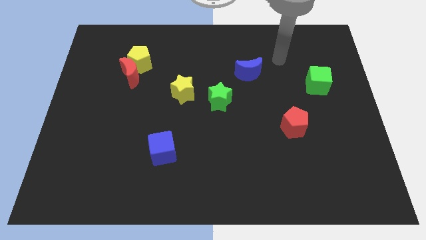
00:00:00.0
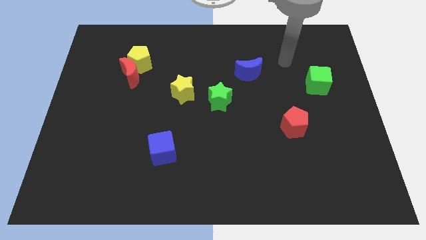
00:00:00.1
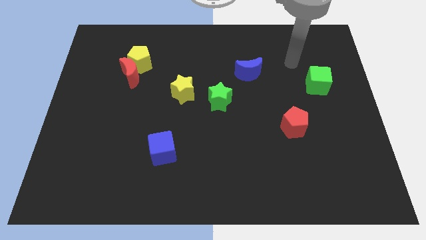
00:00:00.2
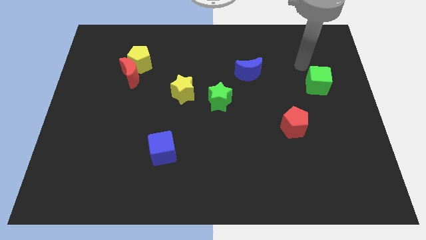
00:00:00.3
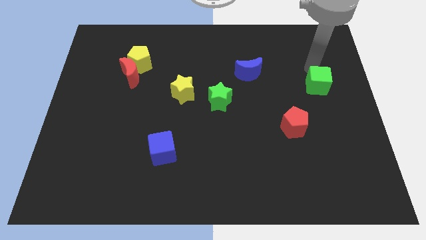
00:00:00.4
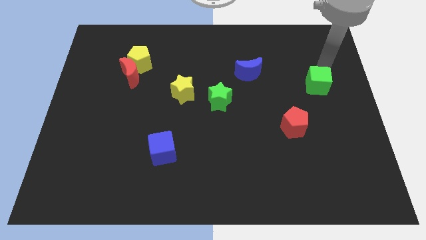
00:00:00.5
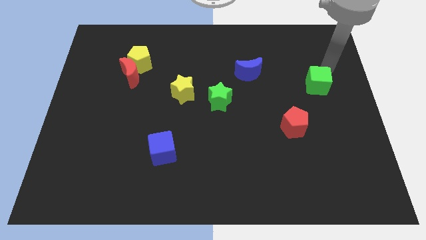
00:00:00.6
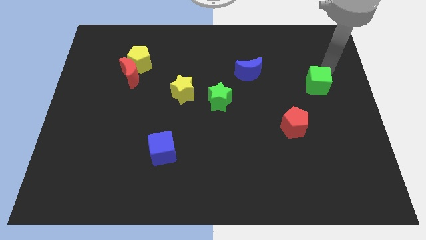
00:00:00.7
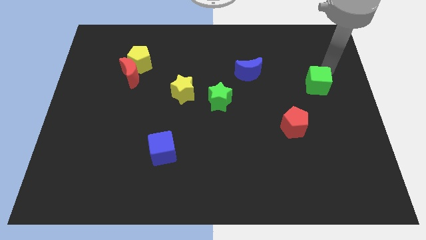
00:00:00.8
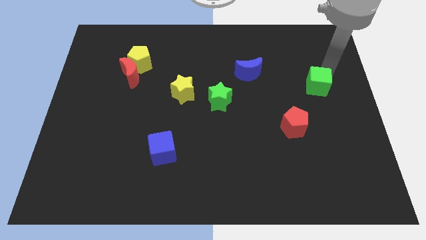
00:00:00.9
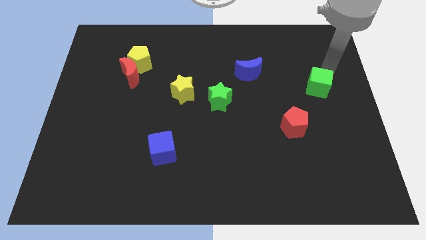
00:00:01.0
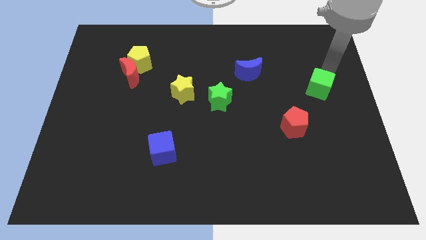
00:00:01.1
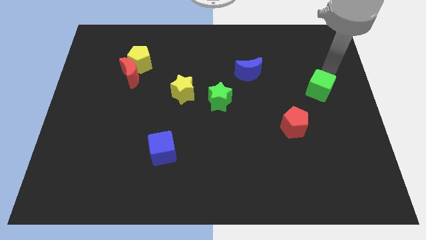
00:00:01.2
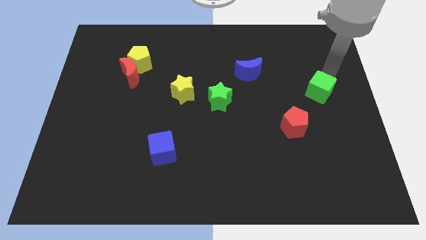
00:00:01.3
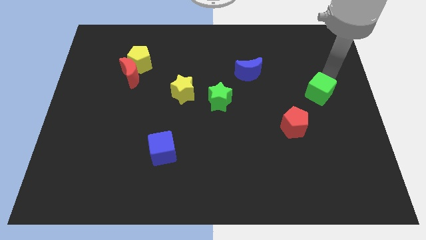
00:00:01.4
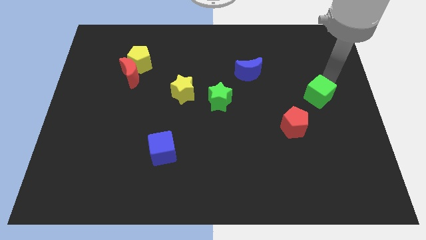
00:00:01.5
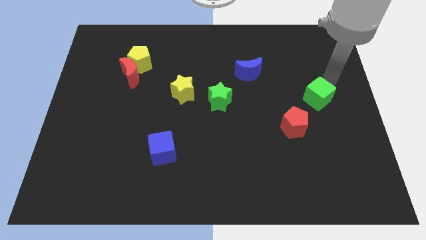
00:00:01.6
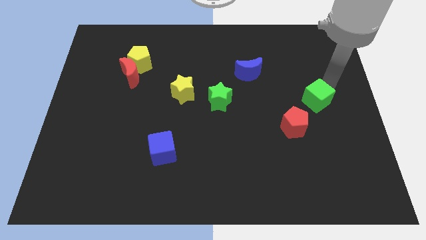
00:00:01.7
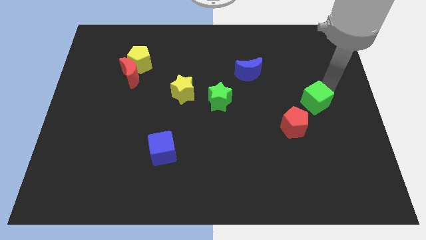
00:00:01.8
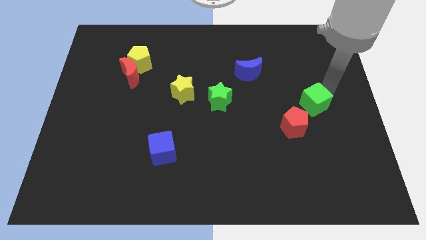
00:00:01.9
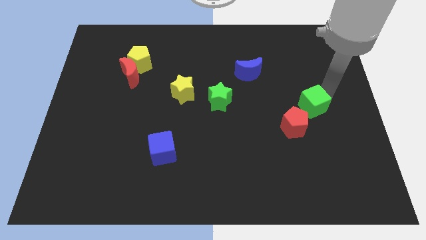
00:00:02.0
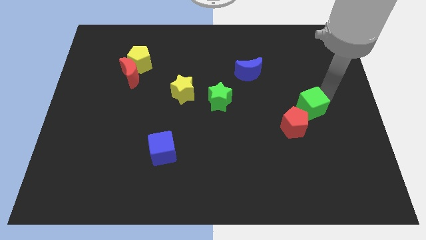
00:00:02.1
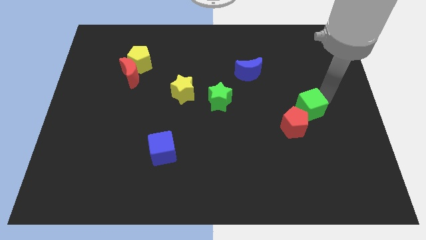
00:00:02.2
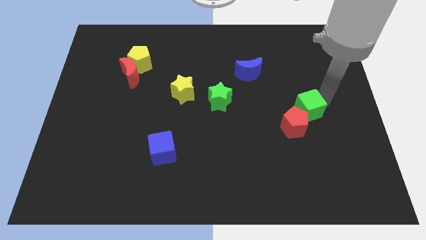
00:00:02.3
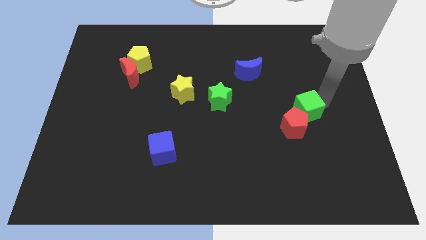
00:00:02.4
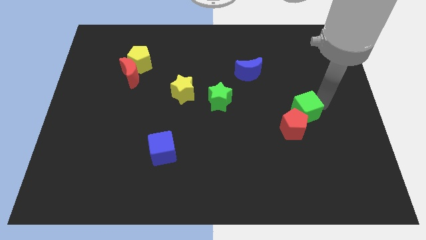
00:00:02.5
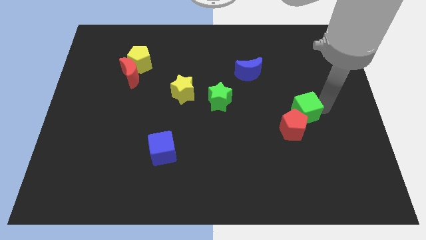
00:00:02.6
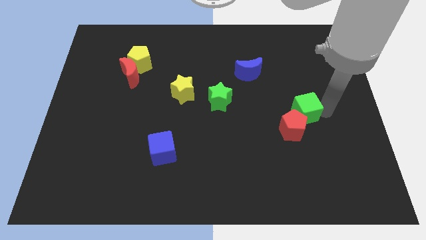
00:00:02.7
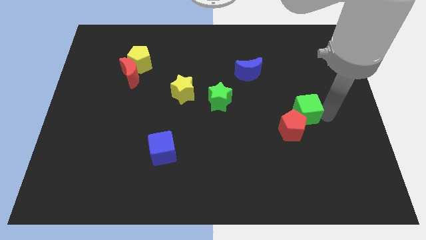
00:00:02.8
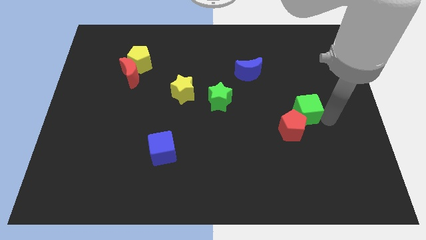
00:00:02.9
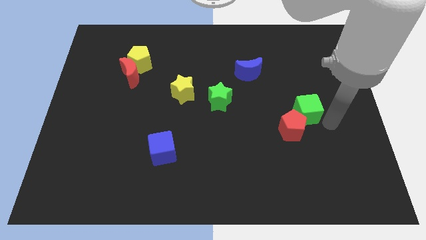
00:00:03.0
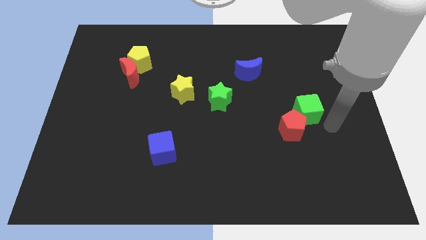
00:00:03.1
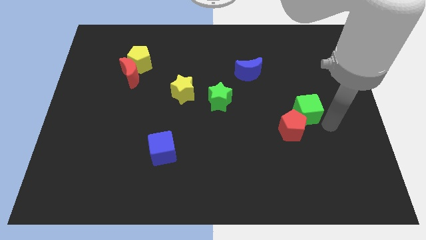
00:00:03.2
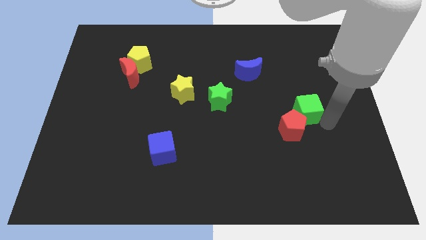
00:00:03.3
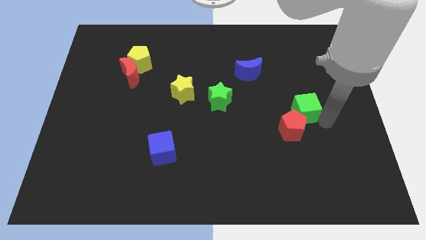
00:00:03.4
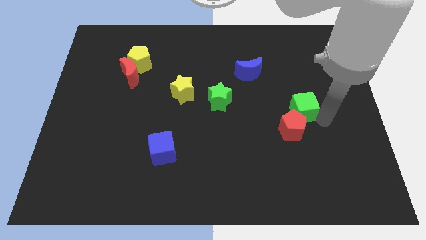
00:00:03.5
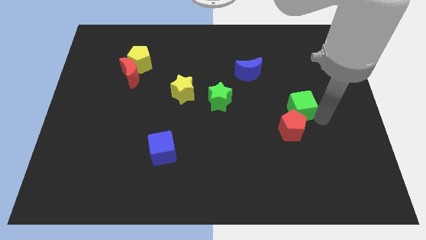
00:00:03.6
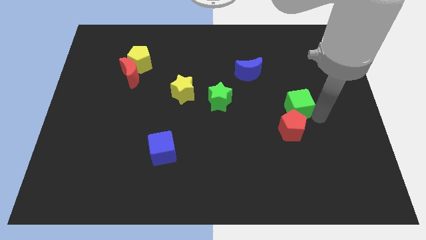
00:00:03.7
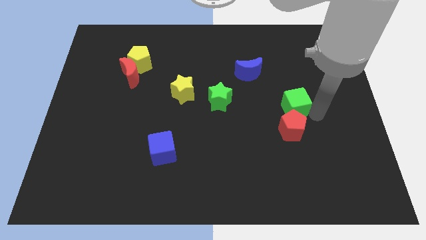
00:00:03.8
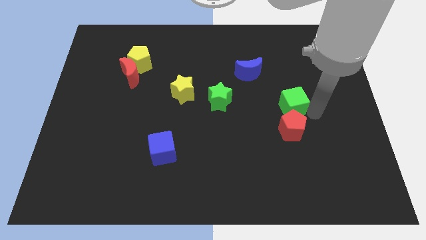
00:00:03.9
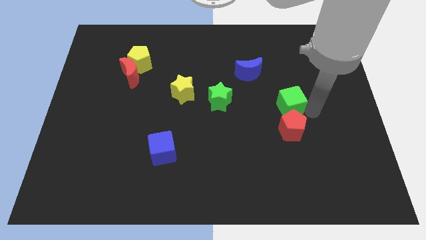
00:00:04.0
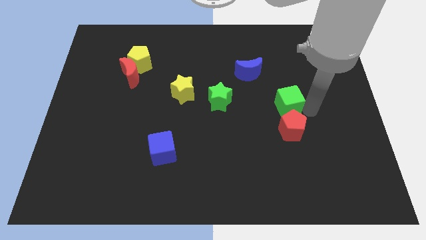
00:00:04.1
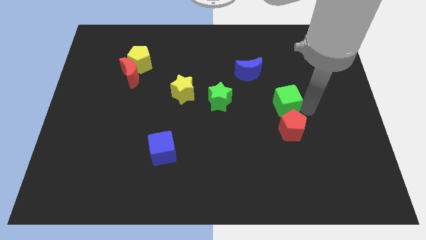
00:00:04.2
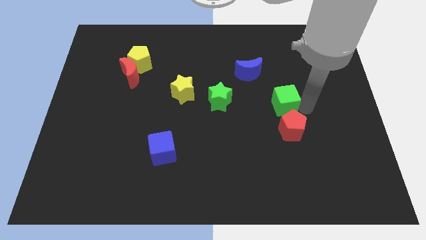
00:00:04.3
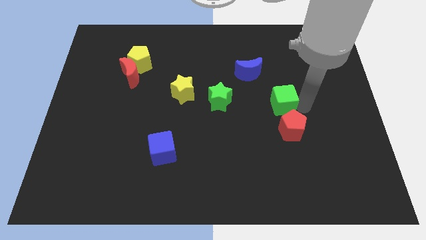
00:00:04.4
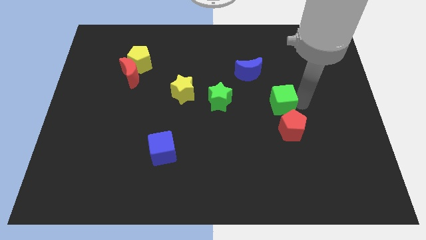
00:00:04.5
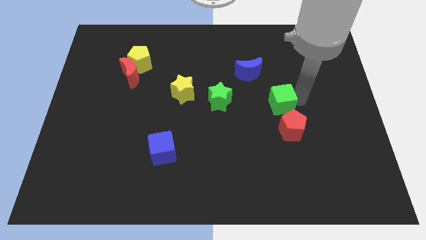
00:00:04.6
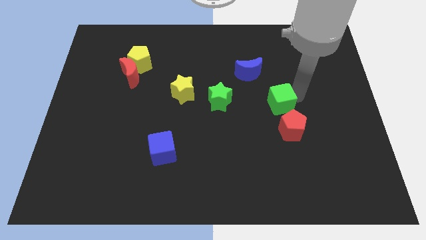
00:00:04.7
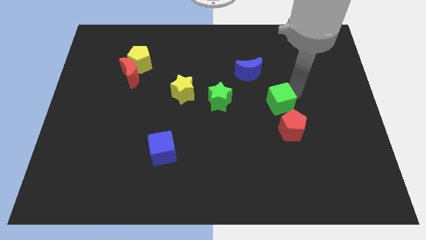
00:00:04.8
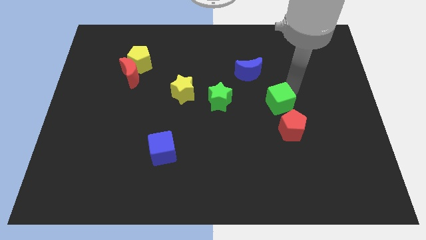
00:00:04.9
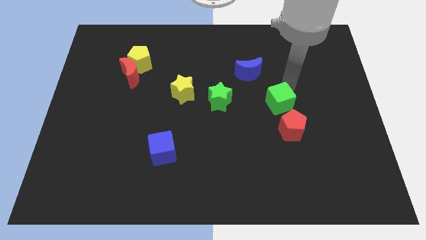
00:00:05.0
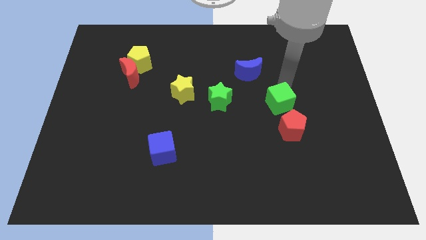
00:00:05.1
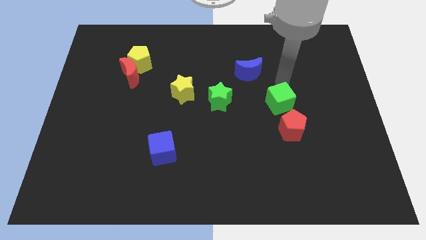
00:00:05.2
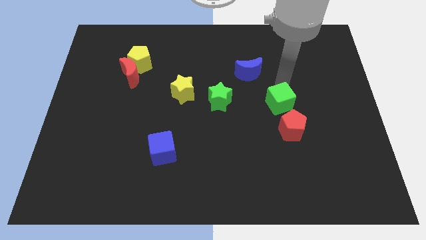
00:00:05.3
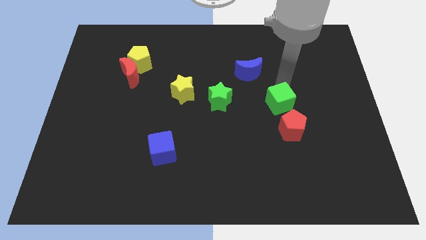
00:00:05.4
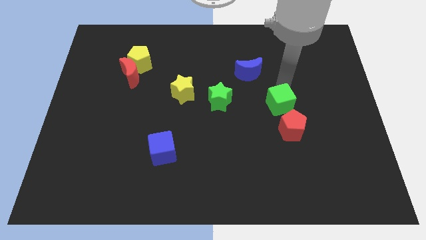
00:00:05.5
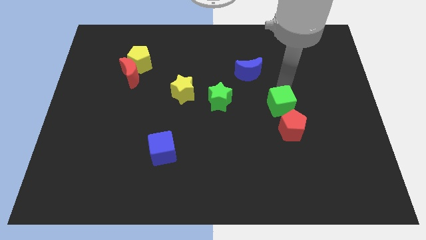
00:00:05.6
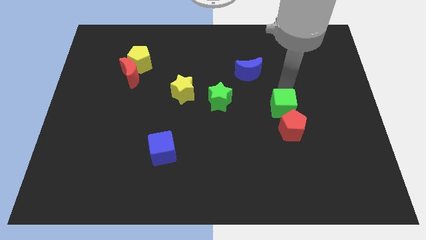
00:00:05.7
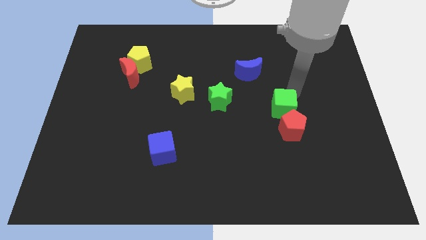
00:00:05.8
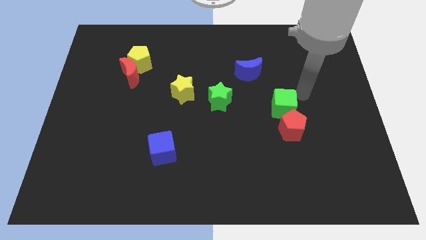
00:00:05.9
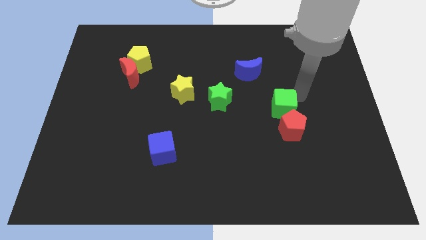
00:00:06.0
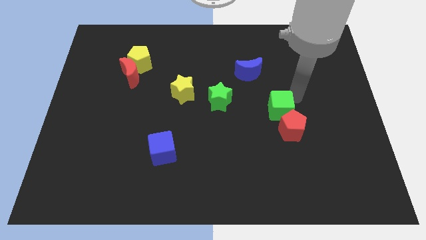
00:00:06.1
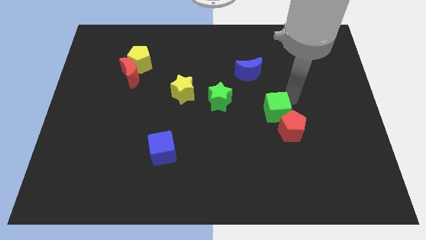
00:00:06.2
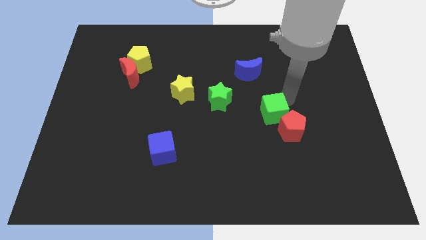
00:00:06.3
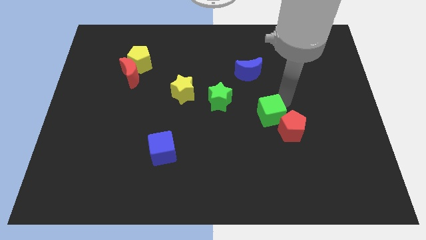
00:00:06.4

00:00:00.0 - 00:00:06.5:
push the green cube just left of the red pentagon
